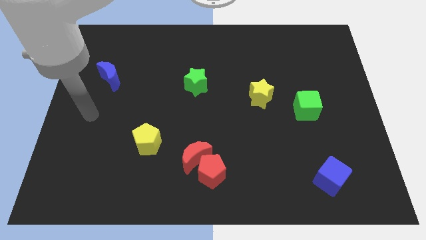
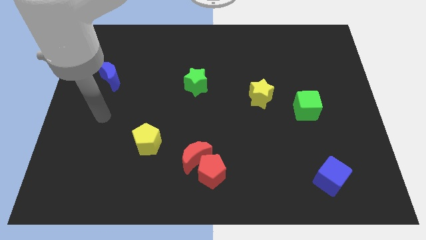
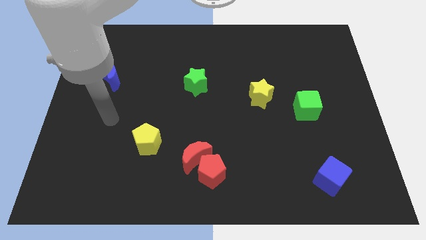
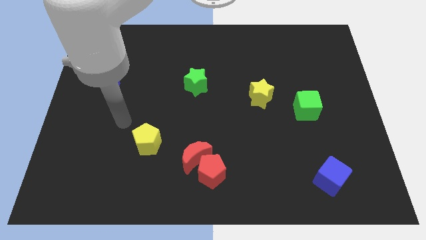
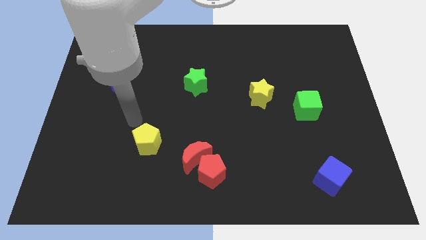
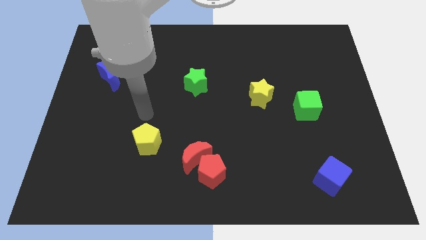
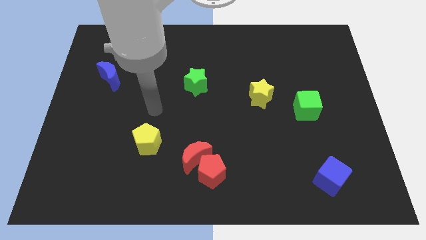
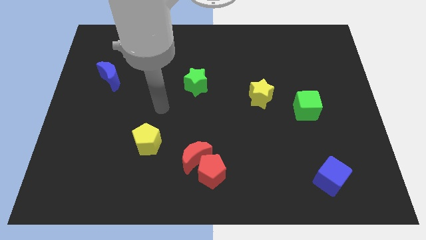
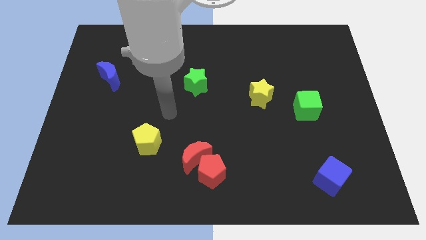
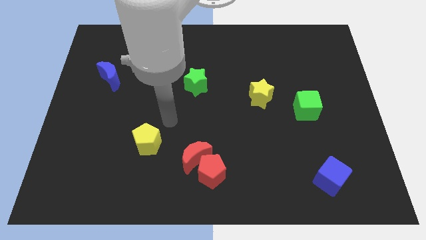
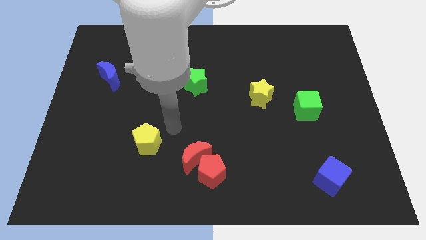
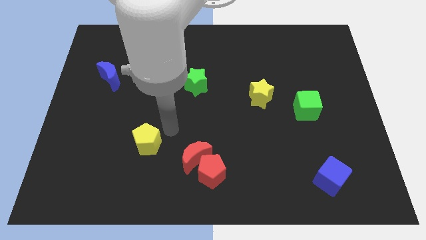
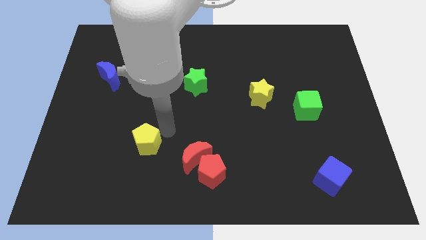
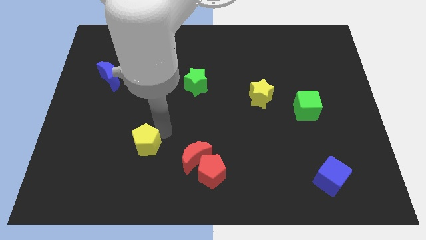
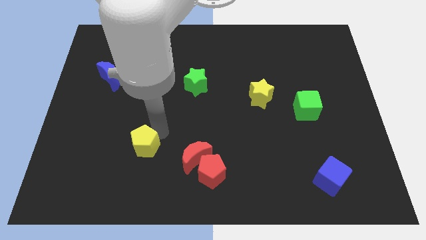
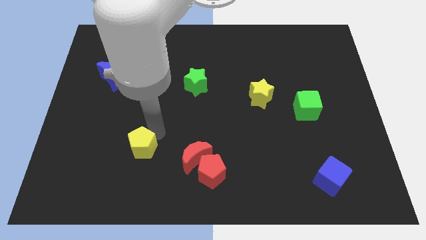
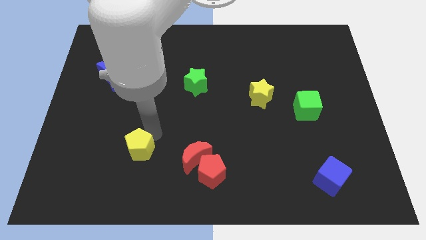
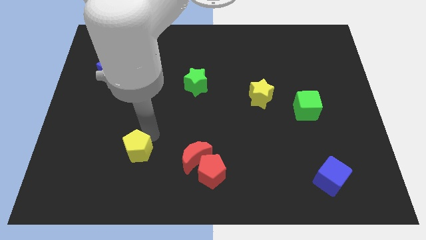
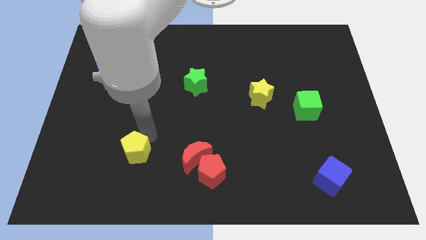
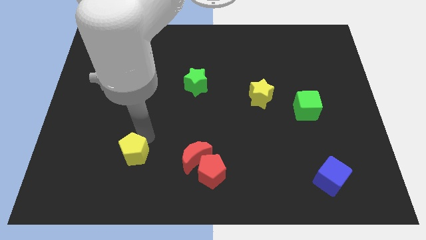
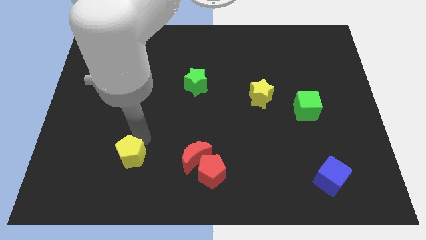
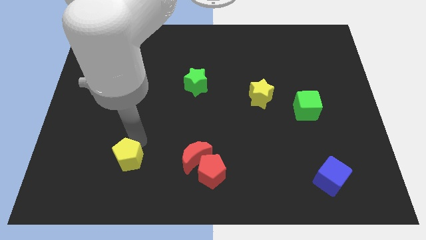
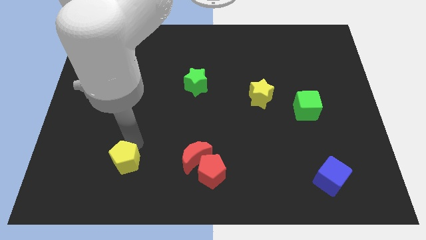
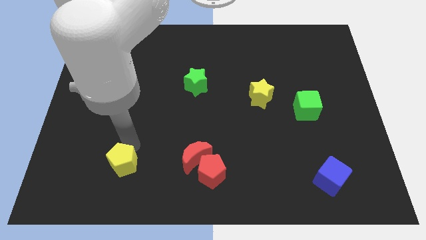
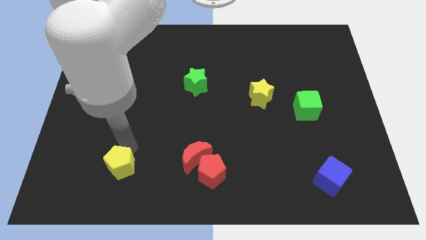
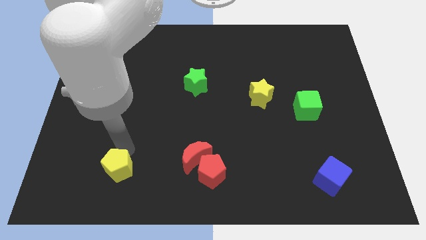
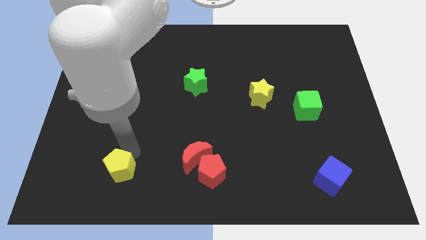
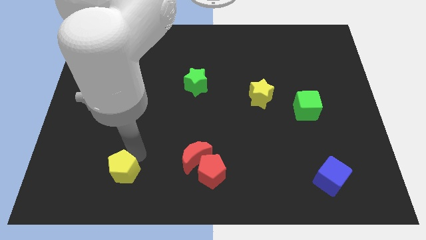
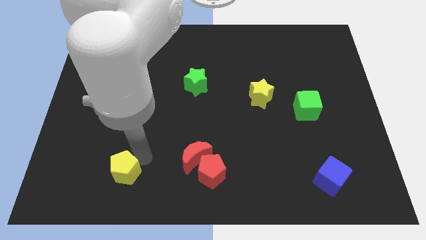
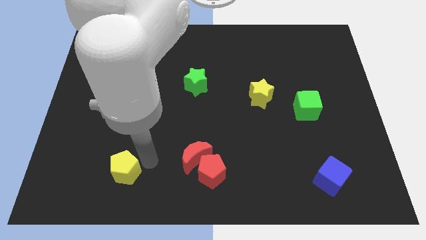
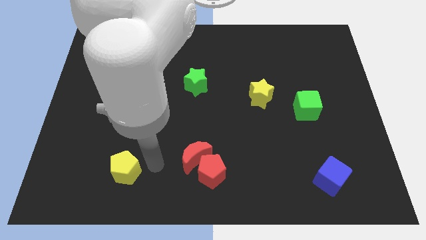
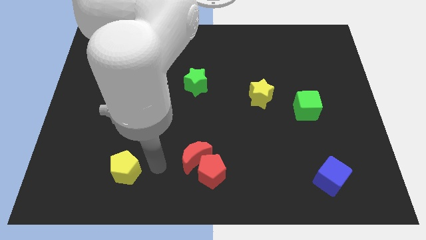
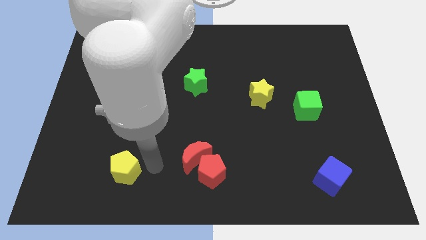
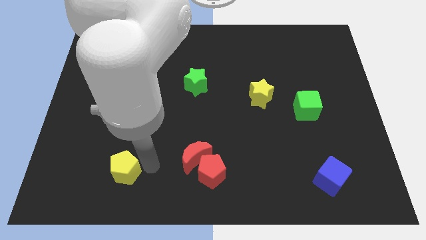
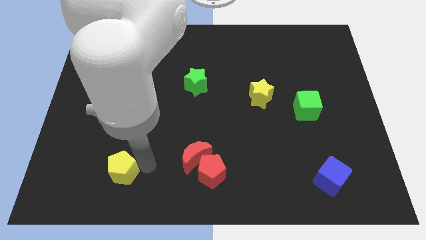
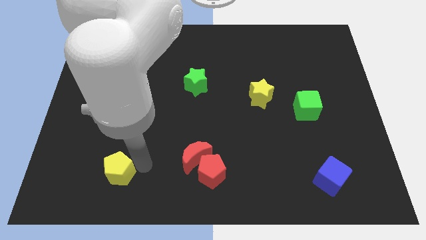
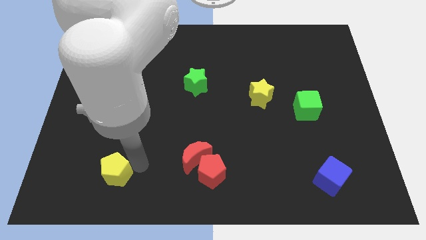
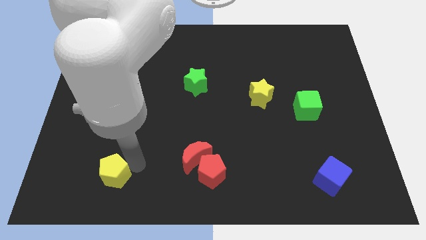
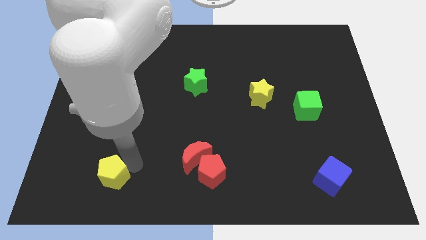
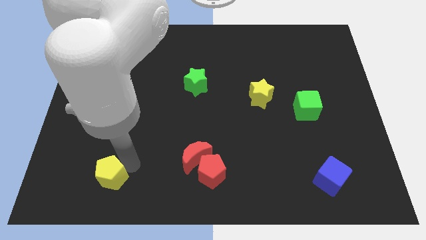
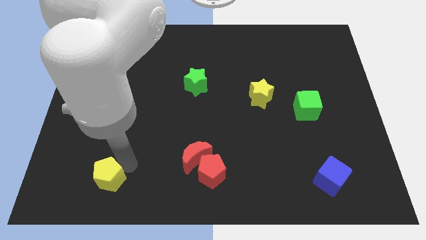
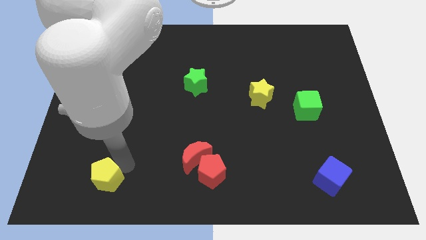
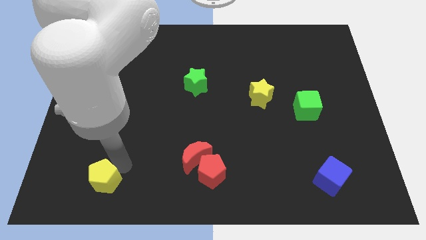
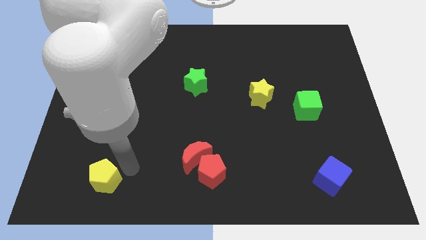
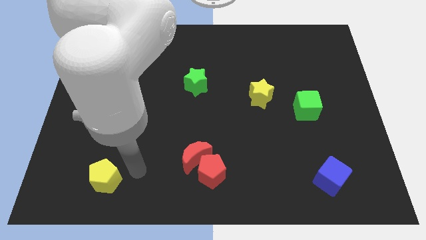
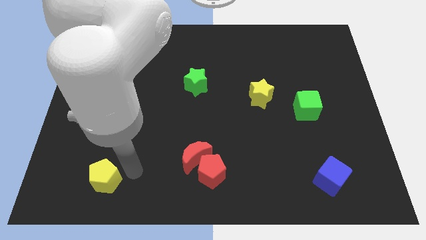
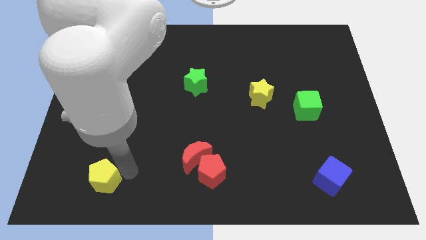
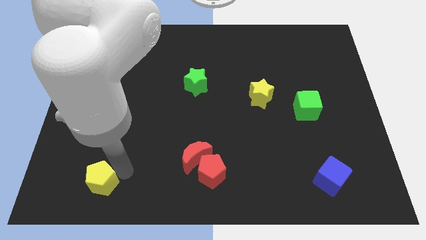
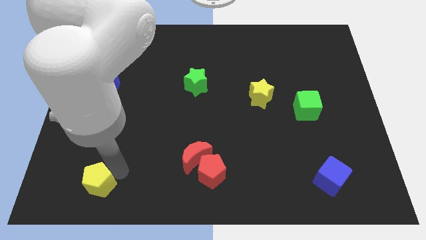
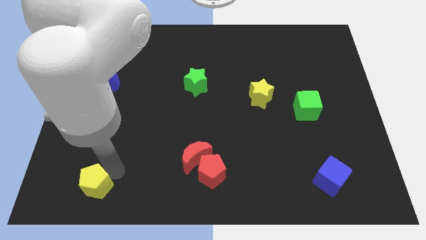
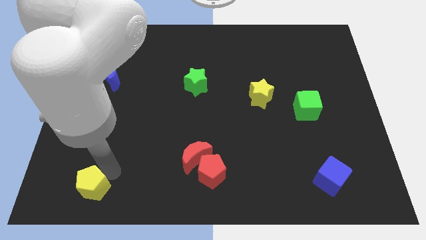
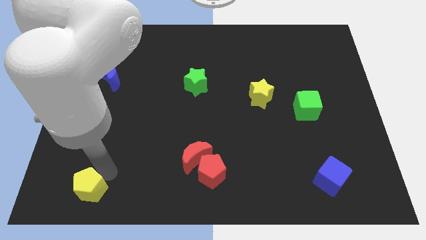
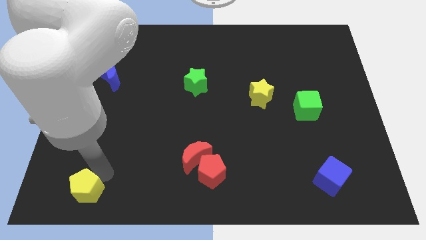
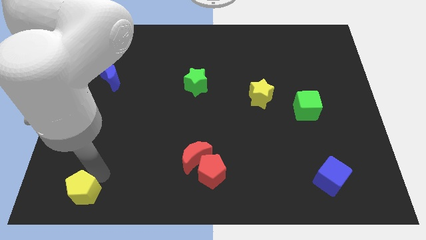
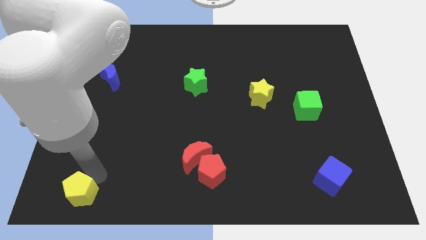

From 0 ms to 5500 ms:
move the yellow pentagon to the bottom left corner

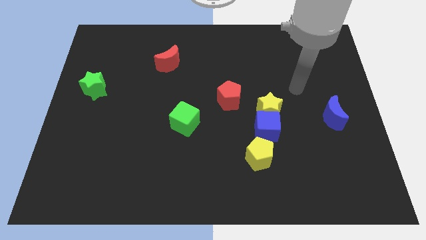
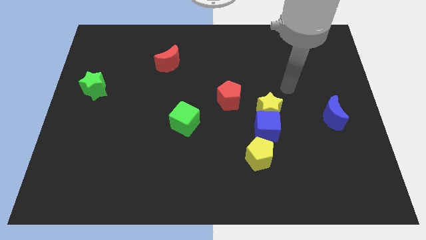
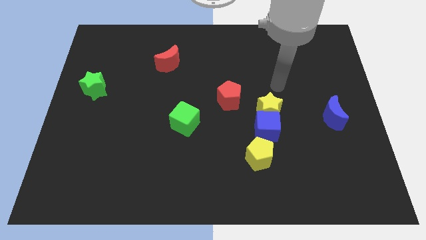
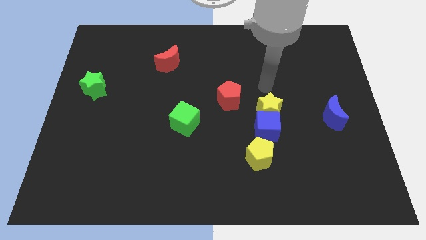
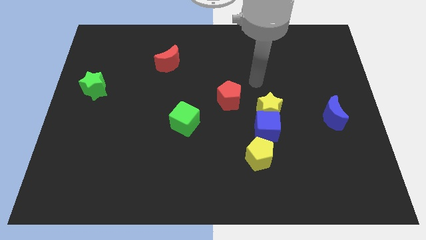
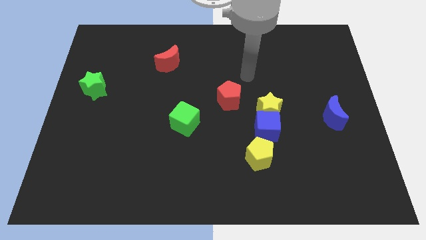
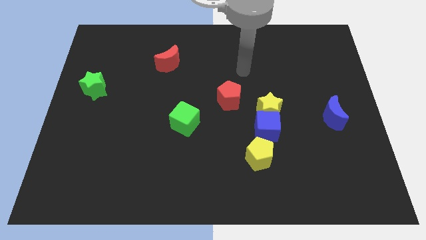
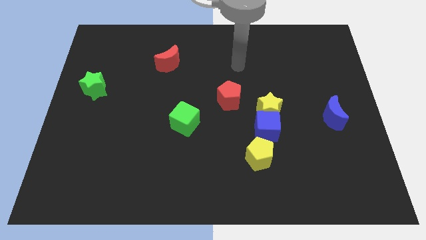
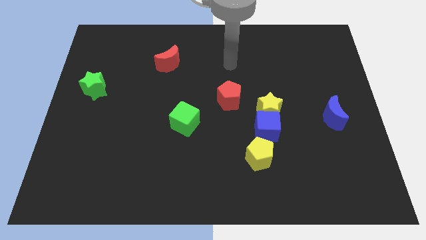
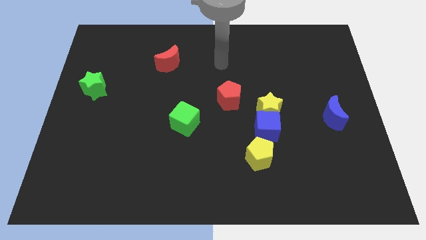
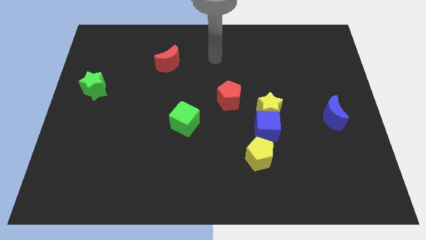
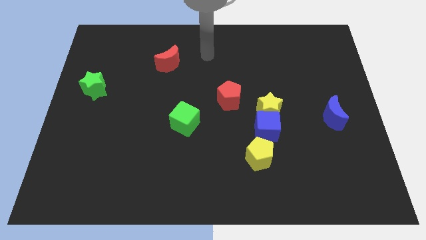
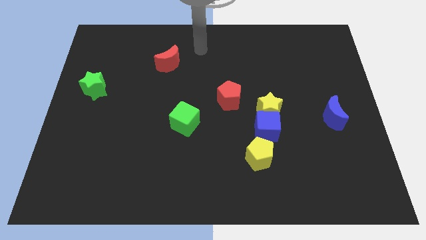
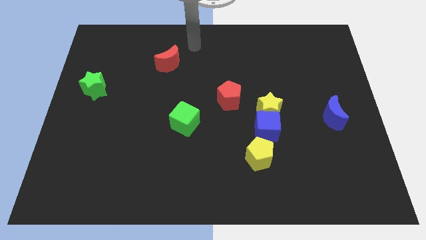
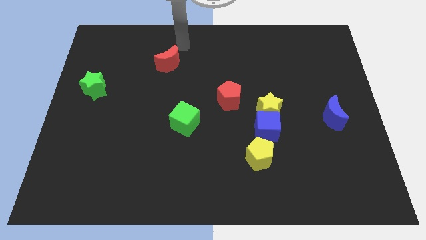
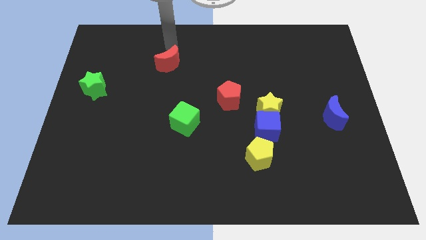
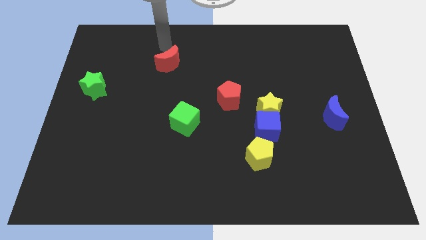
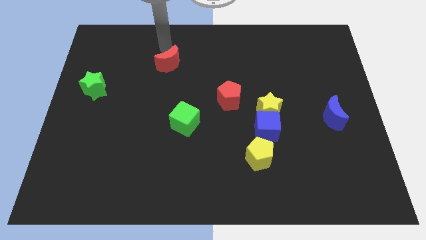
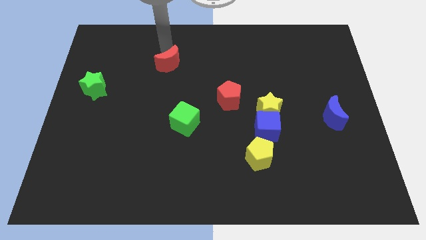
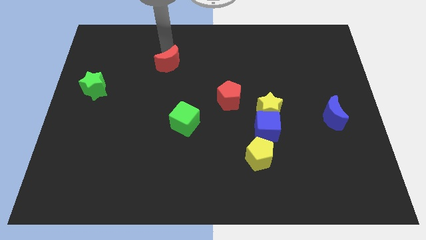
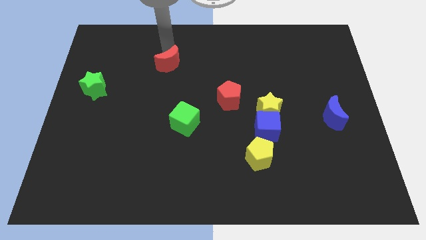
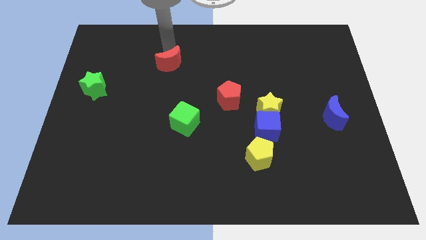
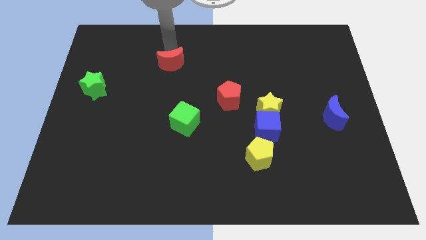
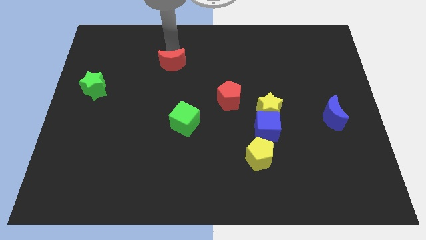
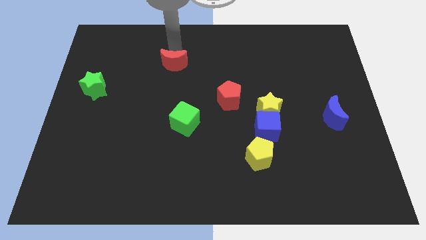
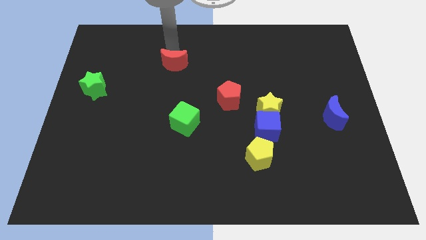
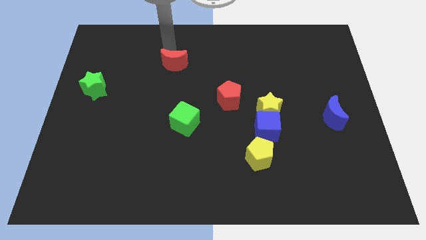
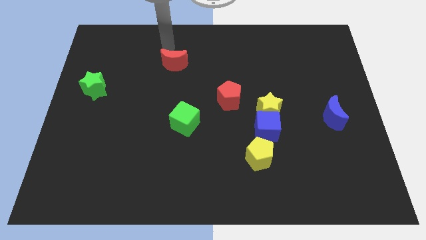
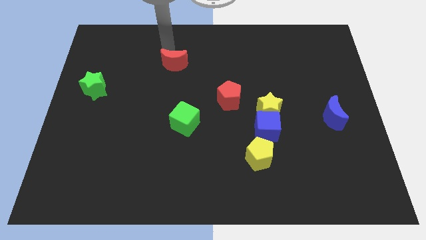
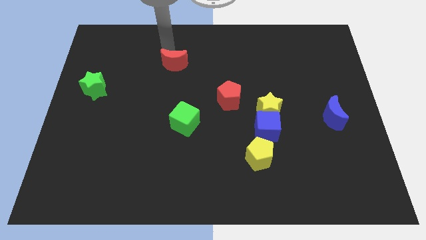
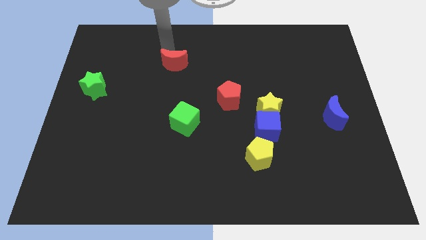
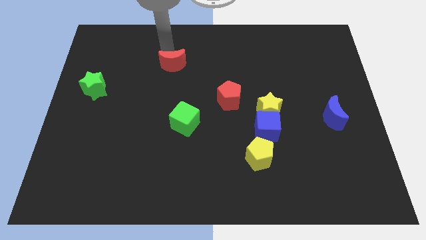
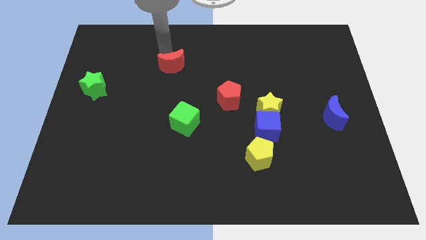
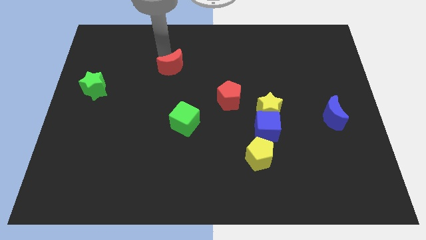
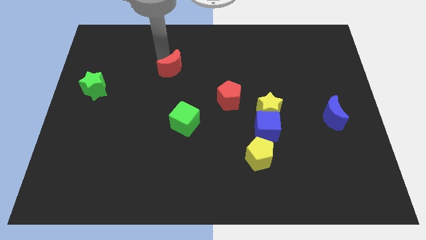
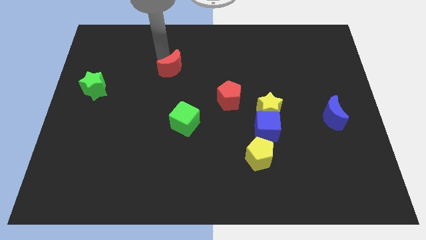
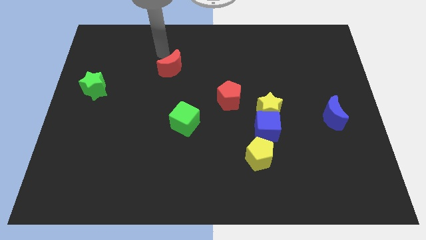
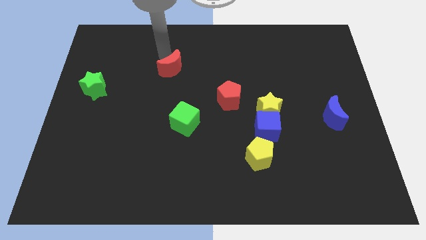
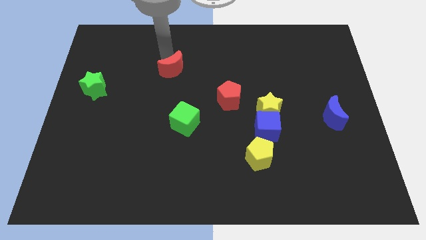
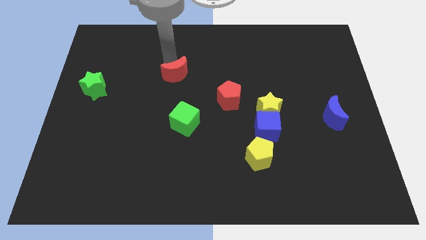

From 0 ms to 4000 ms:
move the red moon to the middle
